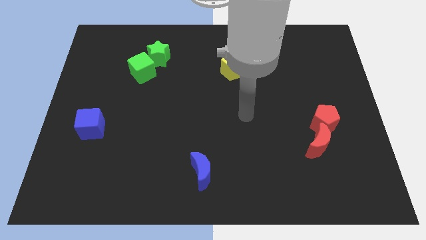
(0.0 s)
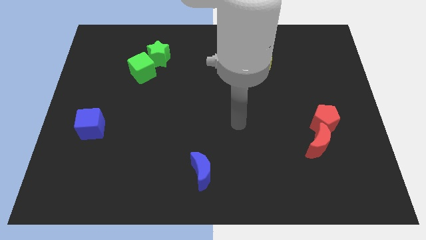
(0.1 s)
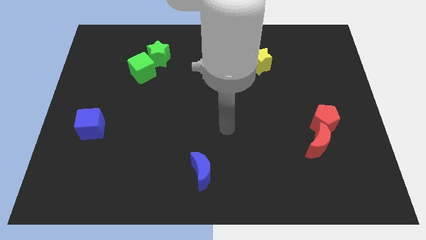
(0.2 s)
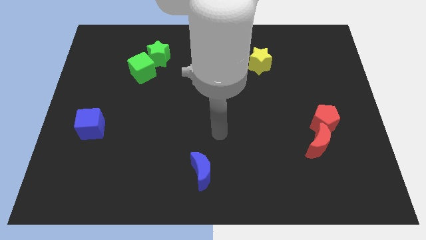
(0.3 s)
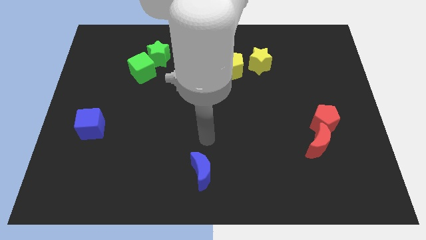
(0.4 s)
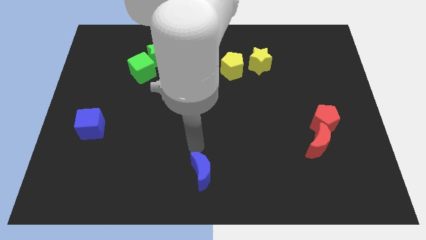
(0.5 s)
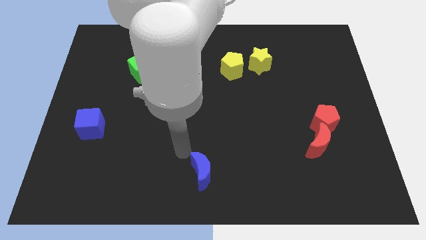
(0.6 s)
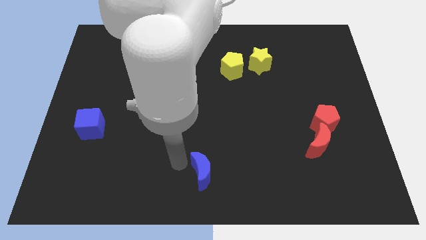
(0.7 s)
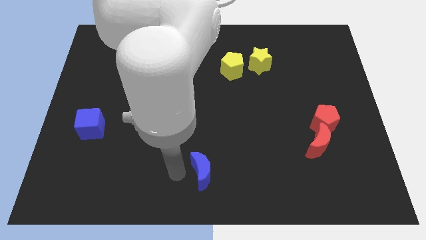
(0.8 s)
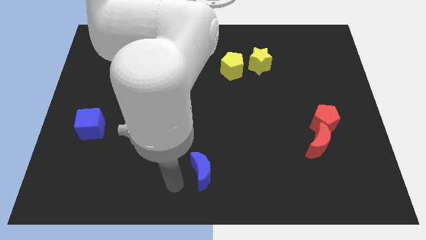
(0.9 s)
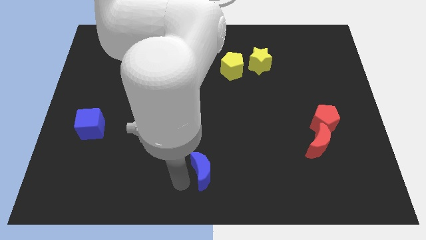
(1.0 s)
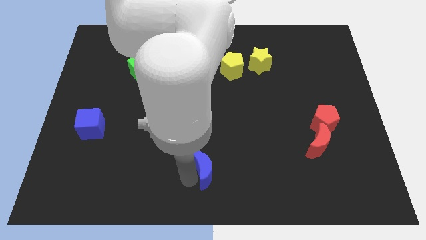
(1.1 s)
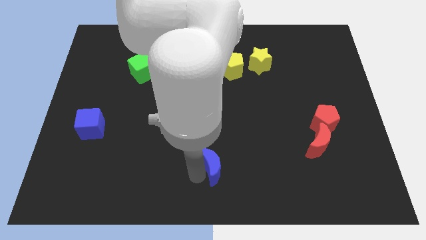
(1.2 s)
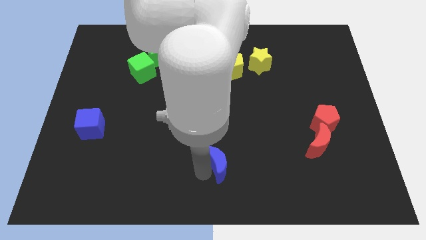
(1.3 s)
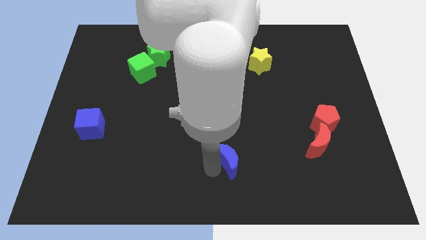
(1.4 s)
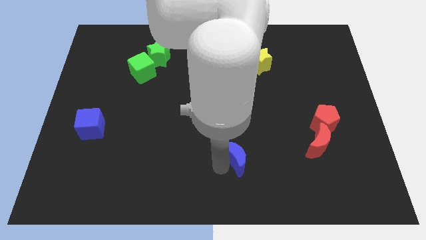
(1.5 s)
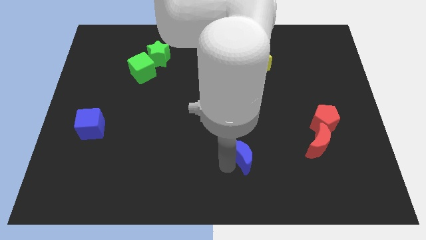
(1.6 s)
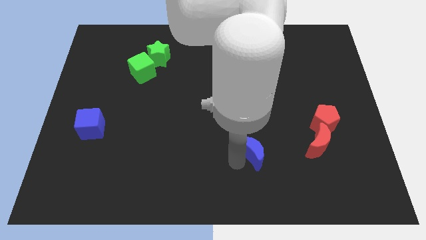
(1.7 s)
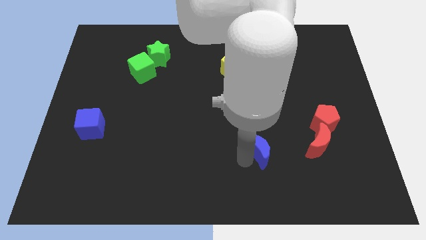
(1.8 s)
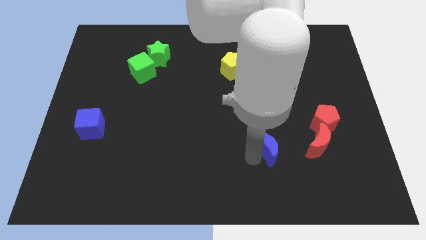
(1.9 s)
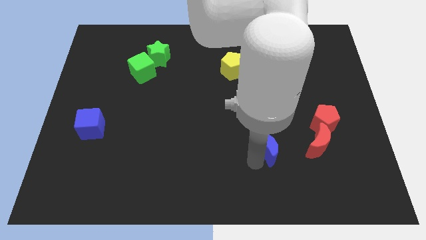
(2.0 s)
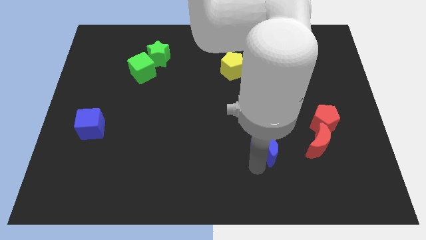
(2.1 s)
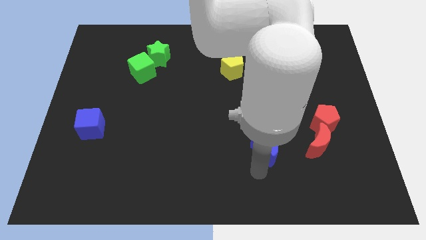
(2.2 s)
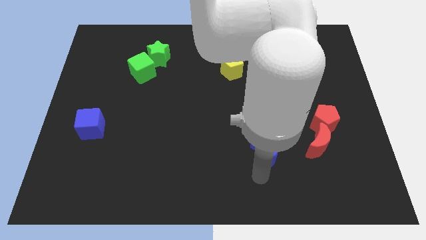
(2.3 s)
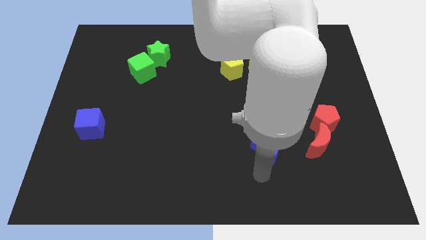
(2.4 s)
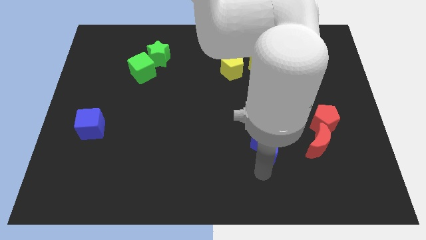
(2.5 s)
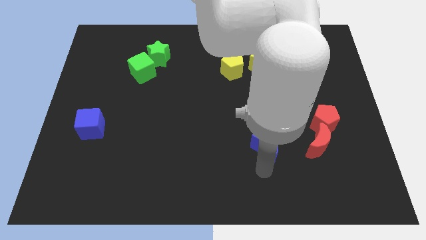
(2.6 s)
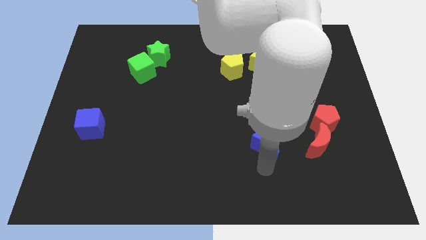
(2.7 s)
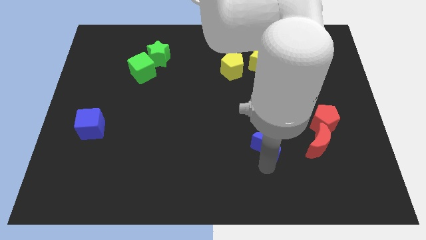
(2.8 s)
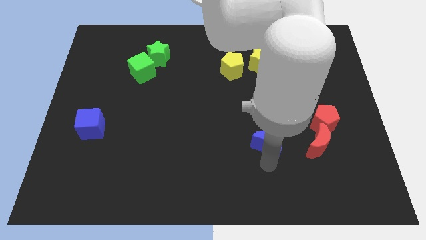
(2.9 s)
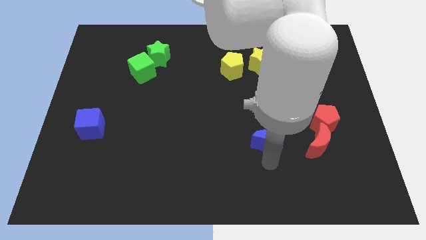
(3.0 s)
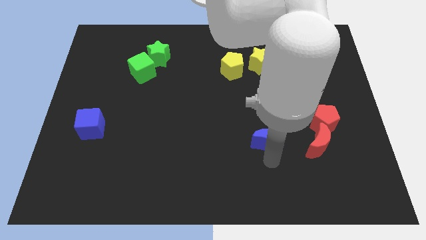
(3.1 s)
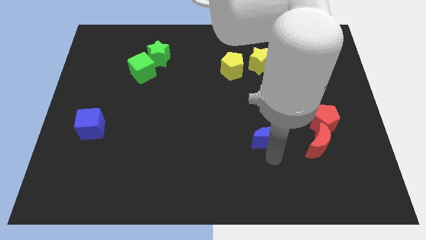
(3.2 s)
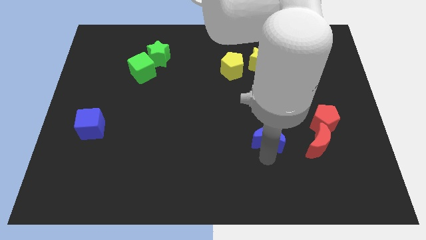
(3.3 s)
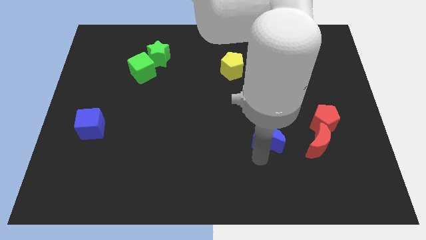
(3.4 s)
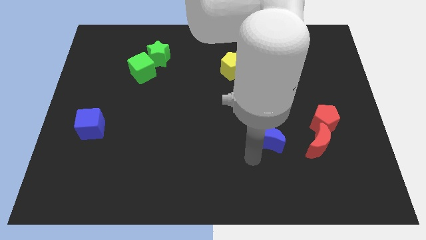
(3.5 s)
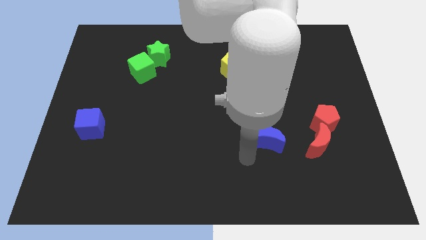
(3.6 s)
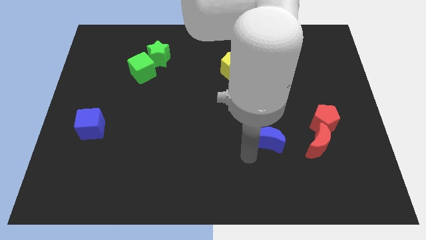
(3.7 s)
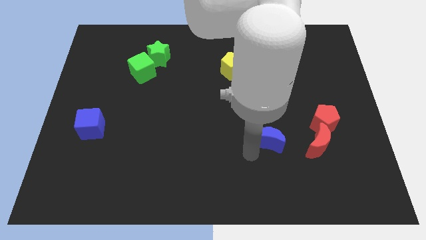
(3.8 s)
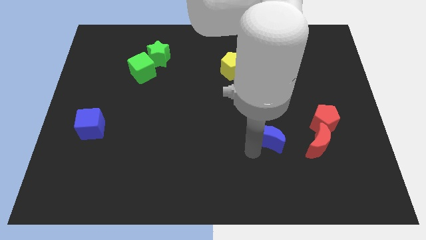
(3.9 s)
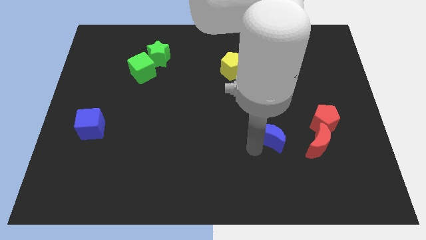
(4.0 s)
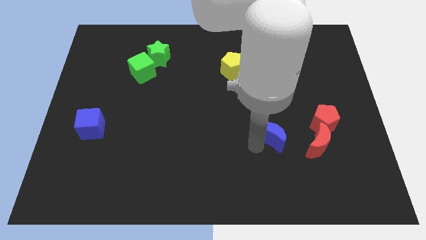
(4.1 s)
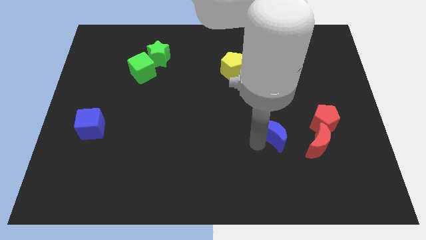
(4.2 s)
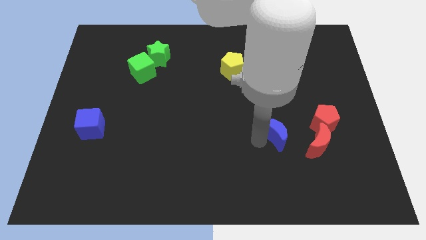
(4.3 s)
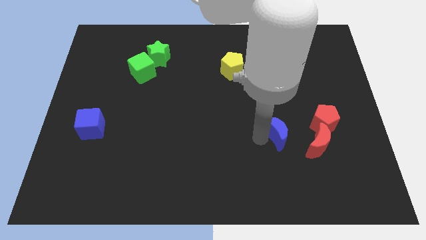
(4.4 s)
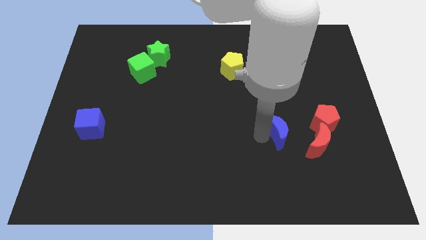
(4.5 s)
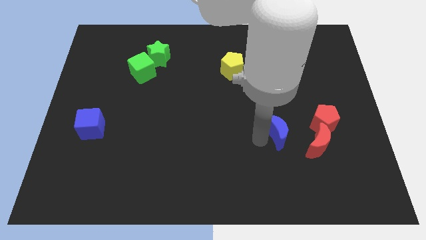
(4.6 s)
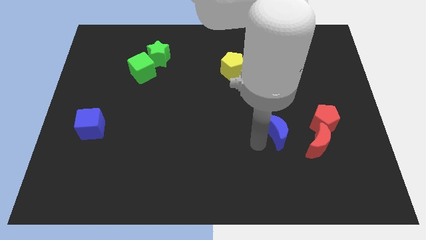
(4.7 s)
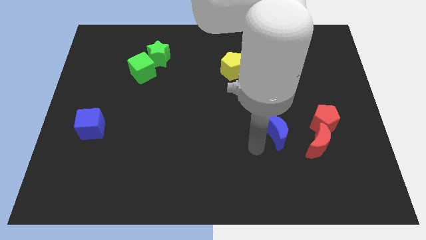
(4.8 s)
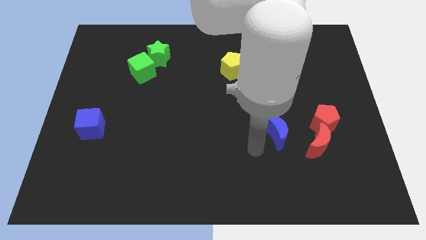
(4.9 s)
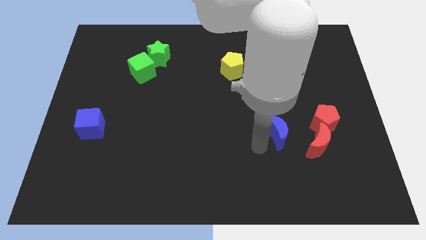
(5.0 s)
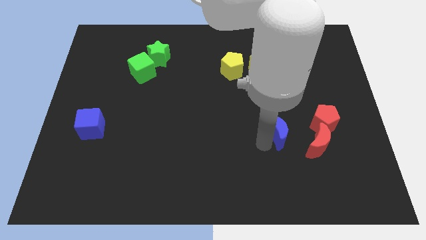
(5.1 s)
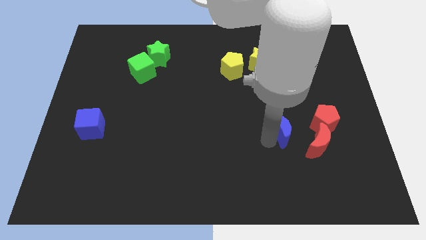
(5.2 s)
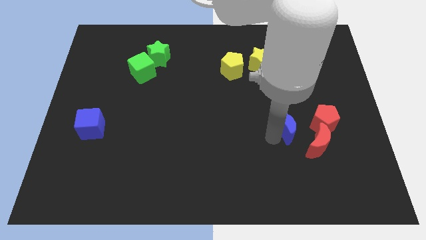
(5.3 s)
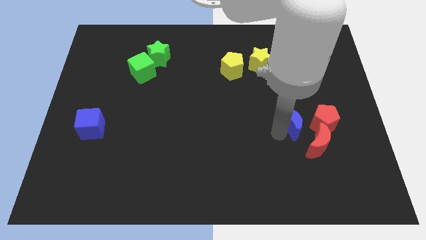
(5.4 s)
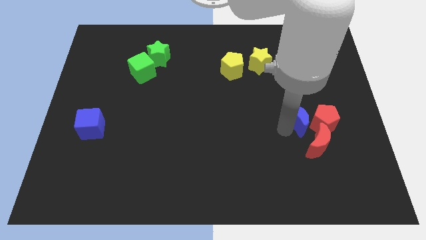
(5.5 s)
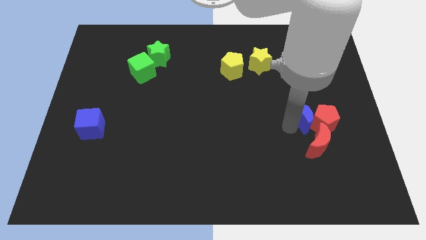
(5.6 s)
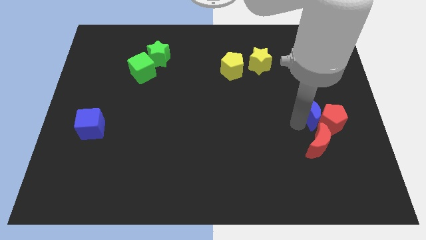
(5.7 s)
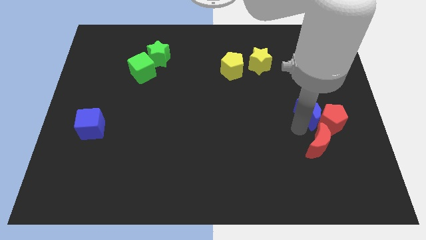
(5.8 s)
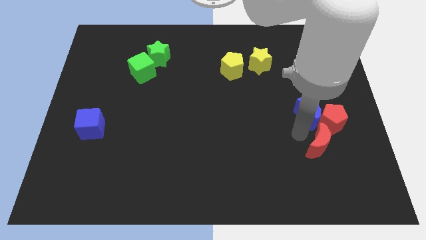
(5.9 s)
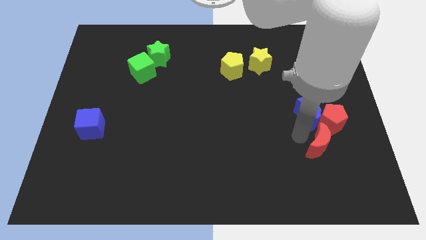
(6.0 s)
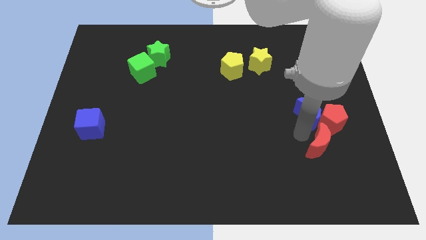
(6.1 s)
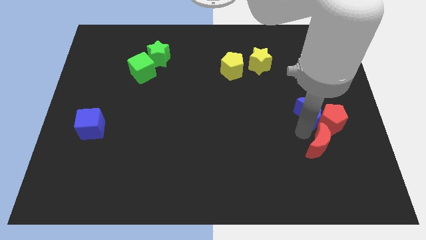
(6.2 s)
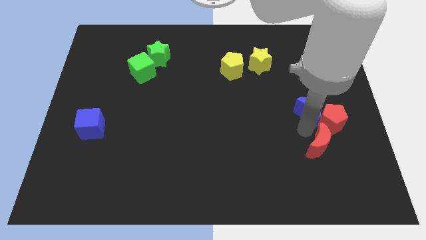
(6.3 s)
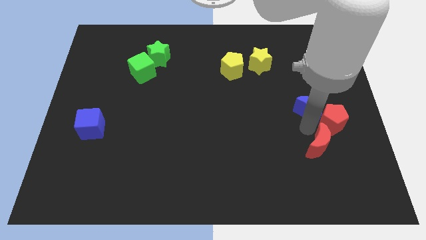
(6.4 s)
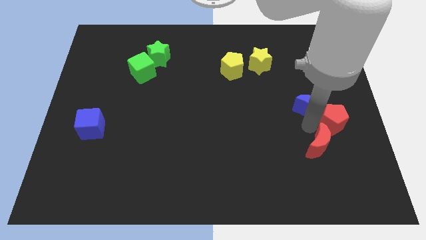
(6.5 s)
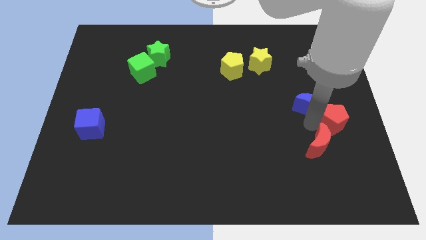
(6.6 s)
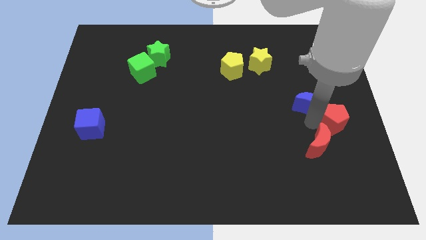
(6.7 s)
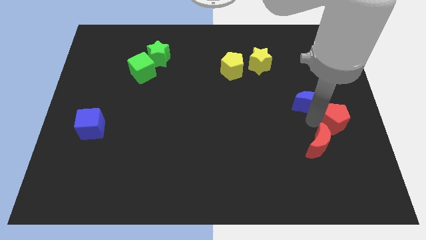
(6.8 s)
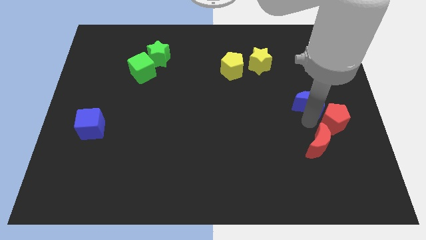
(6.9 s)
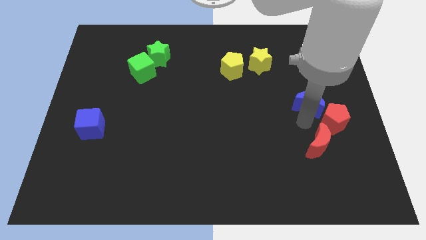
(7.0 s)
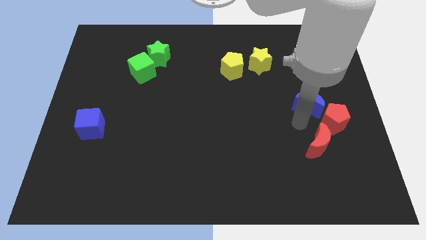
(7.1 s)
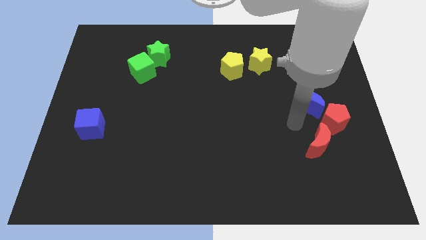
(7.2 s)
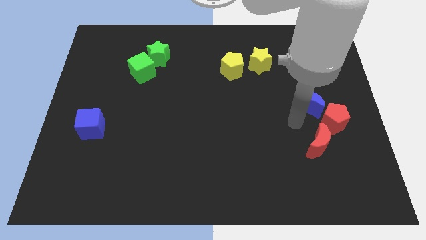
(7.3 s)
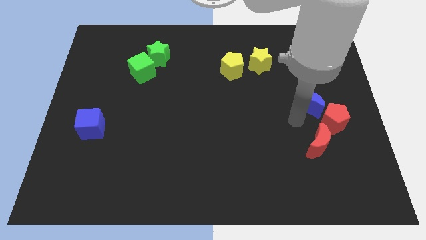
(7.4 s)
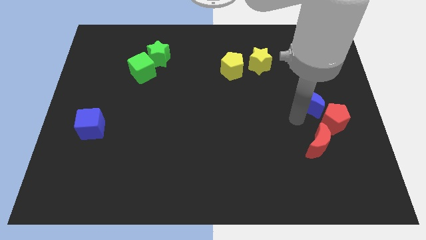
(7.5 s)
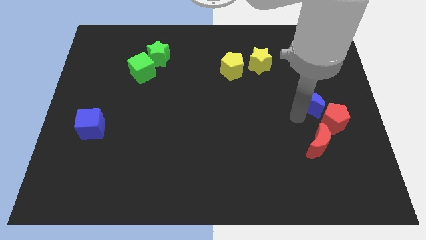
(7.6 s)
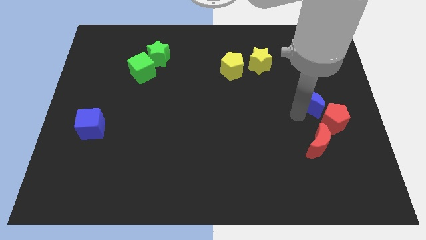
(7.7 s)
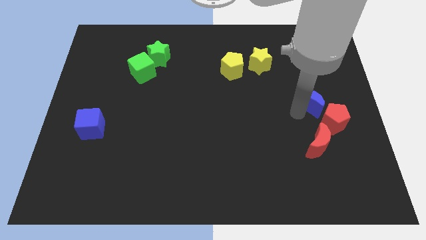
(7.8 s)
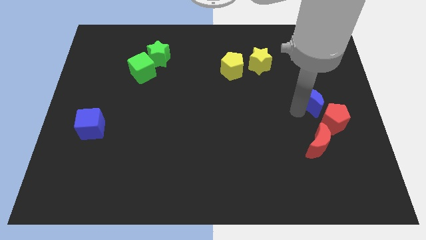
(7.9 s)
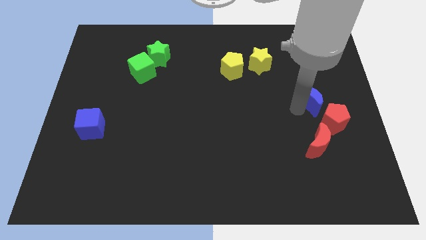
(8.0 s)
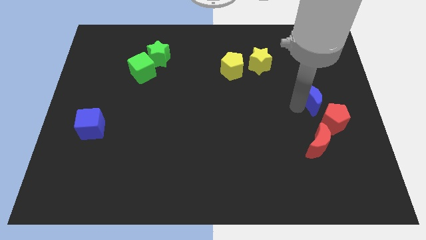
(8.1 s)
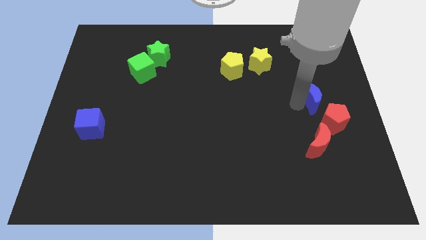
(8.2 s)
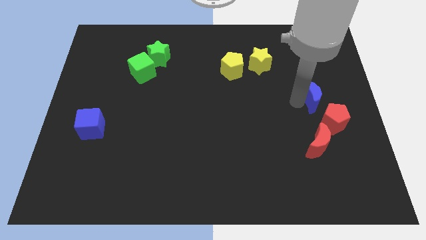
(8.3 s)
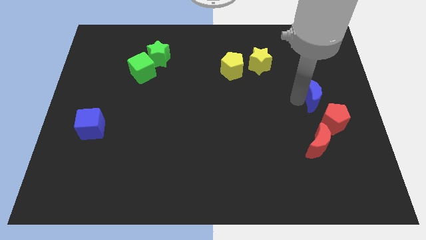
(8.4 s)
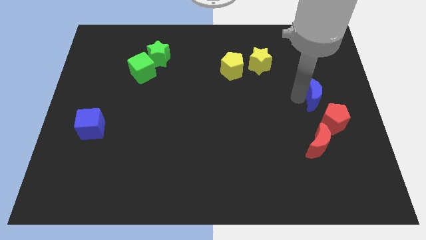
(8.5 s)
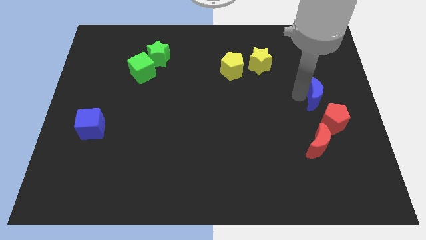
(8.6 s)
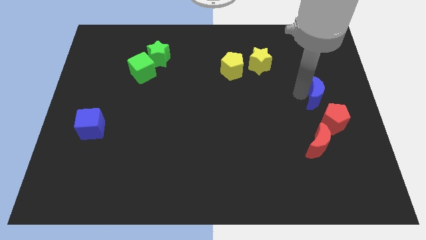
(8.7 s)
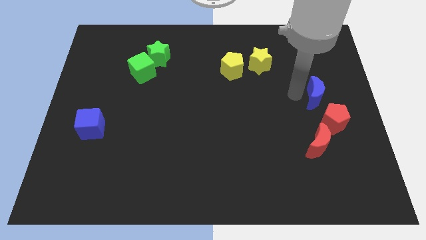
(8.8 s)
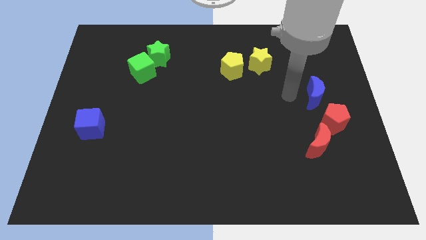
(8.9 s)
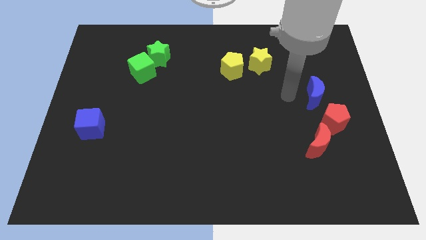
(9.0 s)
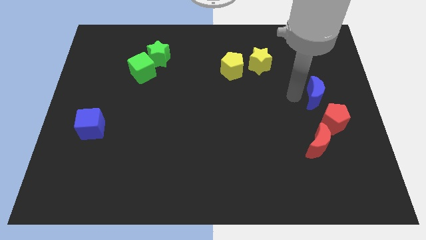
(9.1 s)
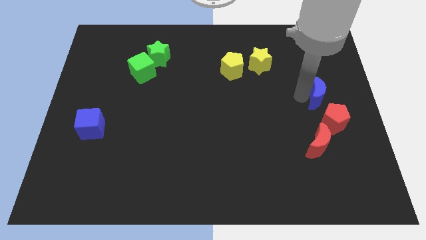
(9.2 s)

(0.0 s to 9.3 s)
push the blue moon to the right side of the board
